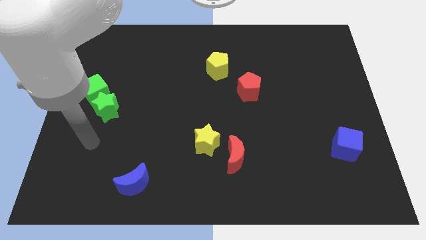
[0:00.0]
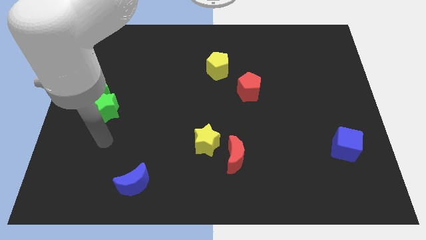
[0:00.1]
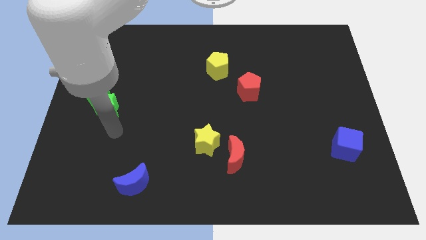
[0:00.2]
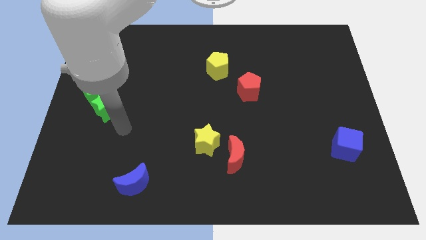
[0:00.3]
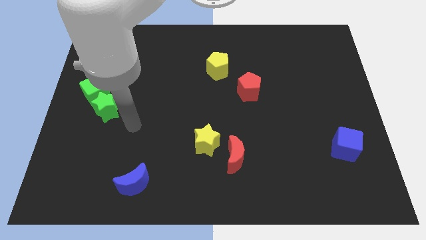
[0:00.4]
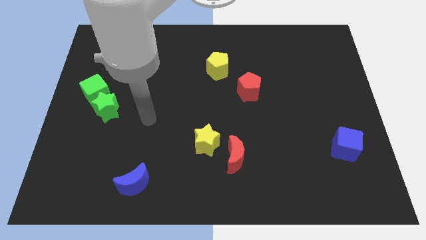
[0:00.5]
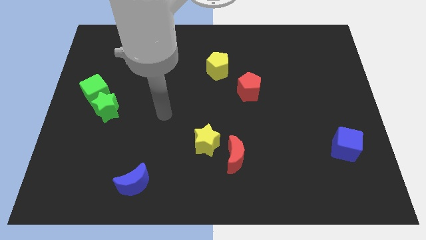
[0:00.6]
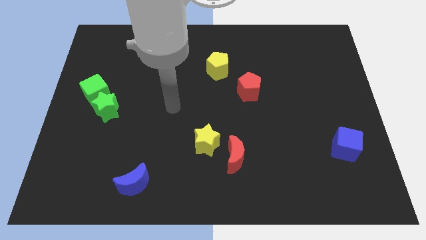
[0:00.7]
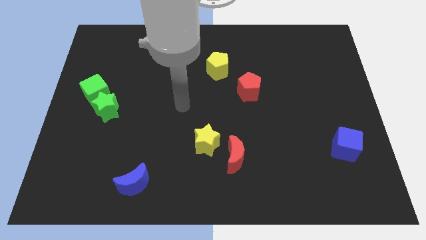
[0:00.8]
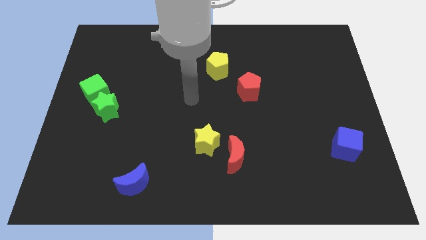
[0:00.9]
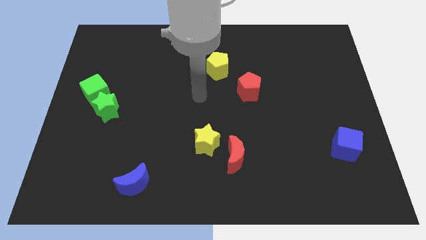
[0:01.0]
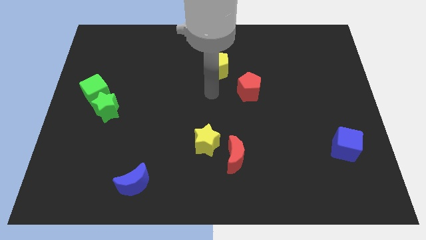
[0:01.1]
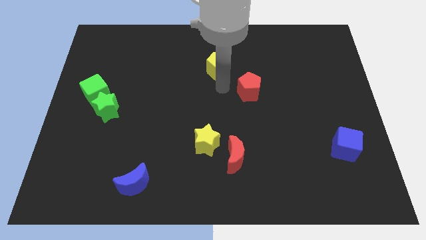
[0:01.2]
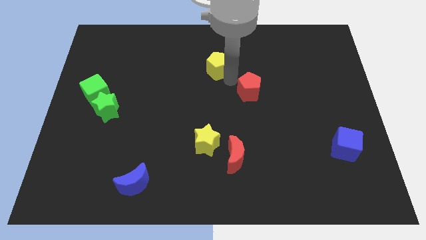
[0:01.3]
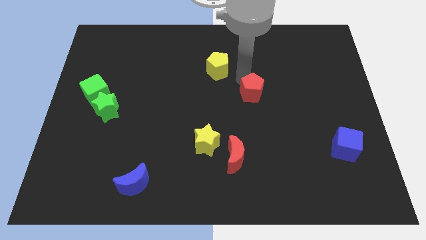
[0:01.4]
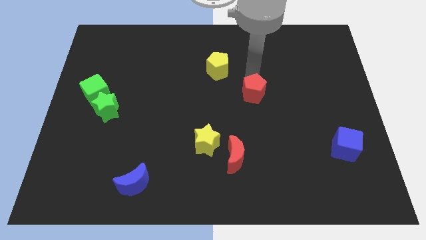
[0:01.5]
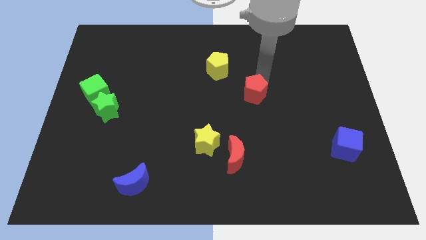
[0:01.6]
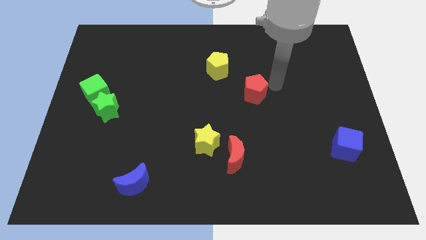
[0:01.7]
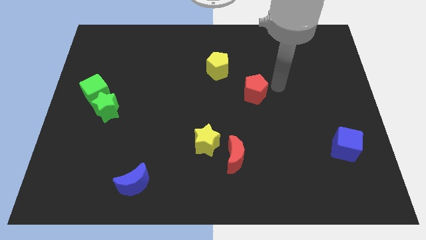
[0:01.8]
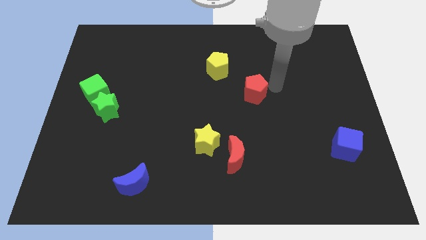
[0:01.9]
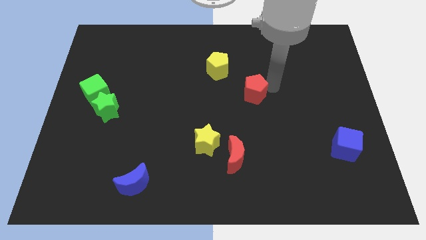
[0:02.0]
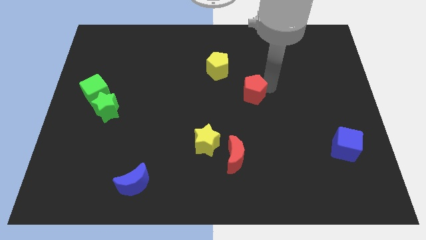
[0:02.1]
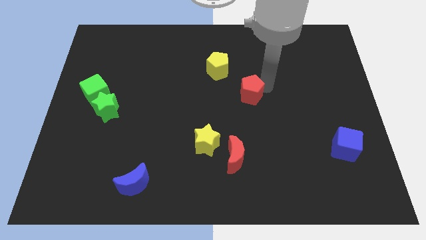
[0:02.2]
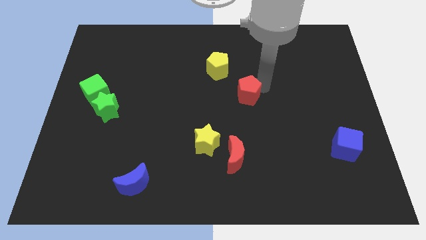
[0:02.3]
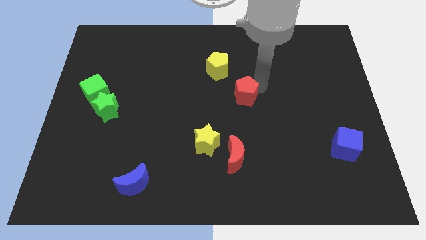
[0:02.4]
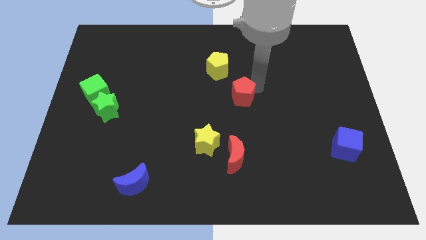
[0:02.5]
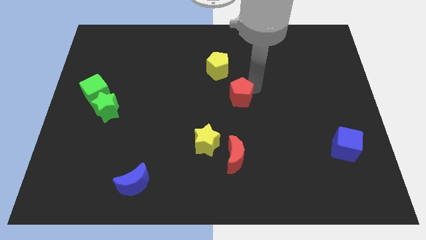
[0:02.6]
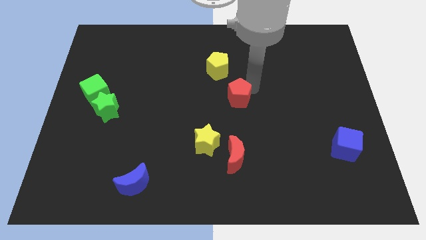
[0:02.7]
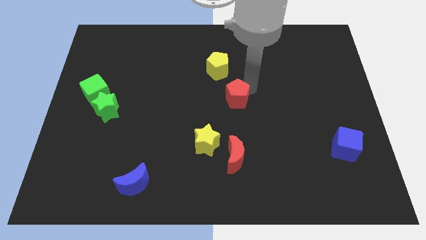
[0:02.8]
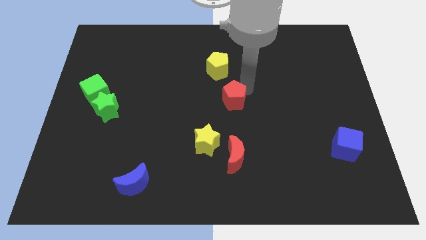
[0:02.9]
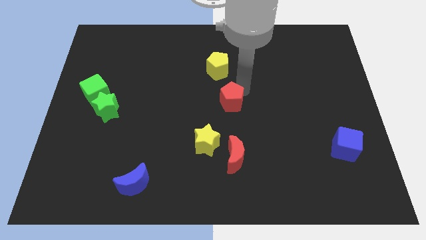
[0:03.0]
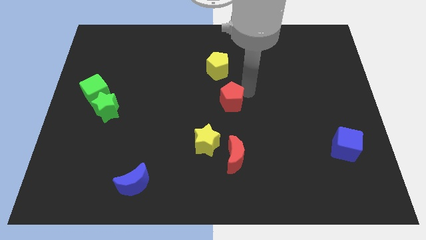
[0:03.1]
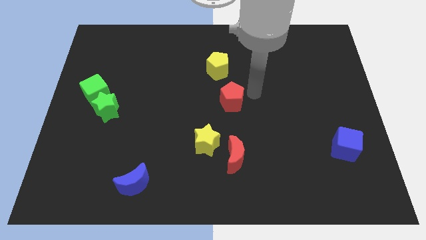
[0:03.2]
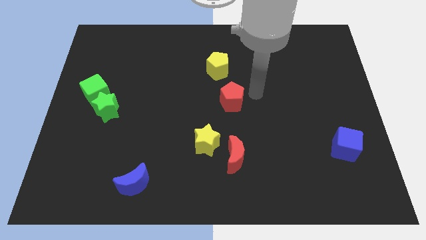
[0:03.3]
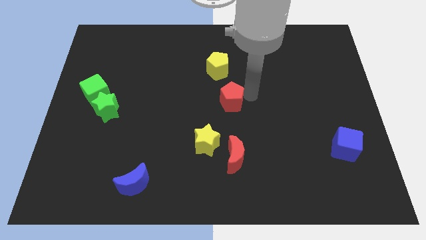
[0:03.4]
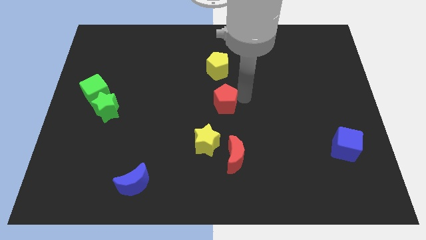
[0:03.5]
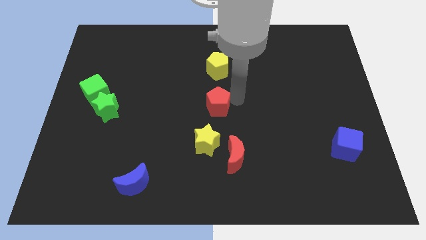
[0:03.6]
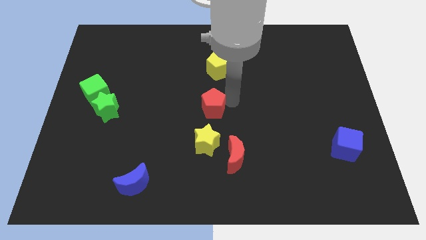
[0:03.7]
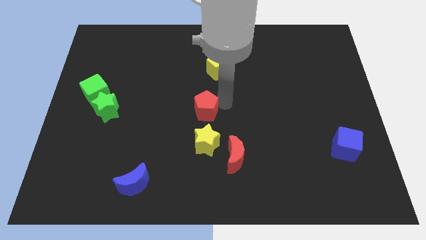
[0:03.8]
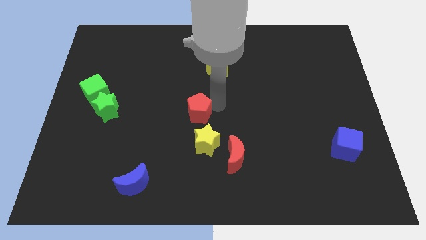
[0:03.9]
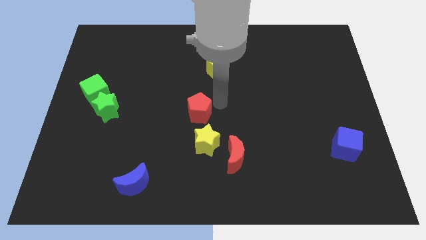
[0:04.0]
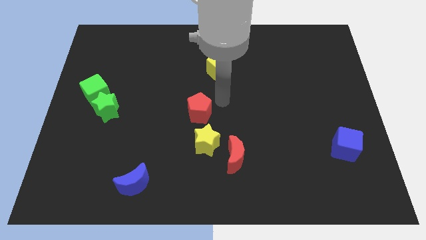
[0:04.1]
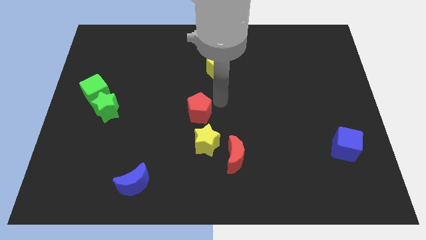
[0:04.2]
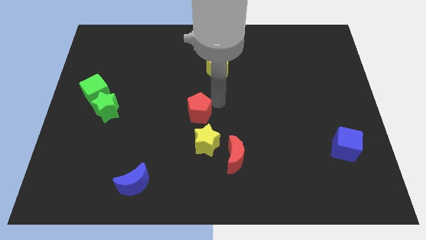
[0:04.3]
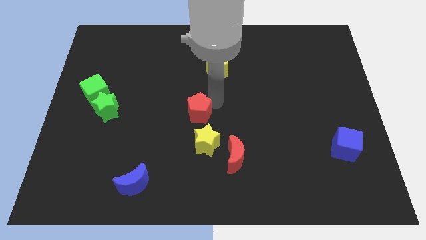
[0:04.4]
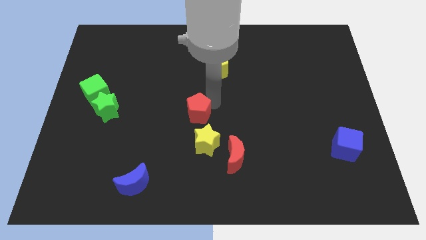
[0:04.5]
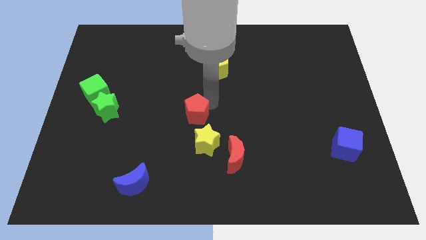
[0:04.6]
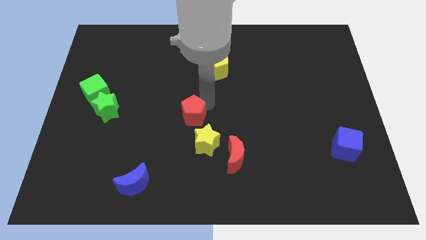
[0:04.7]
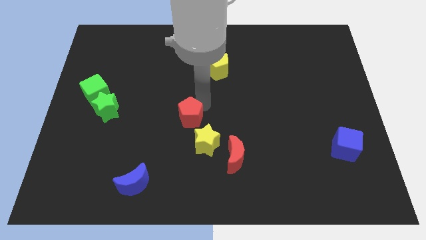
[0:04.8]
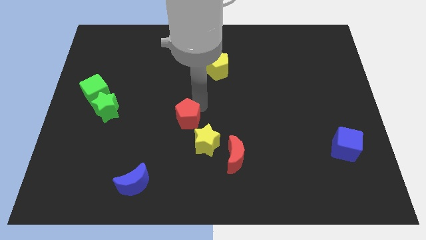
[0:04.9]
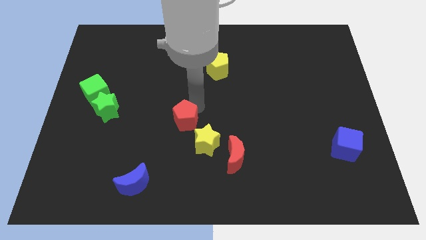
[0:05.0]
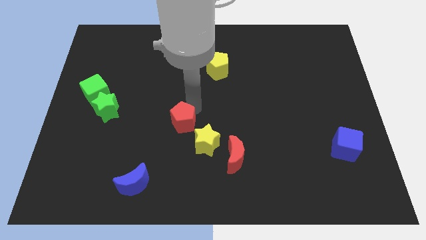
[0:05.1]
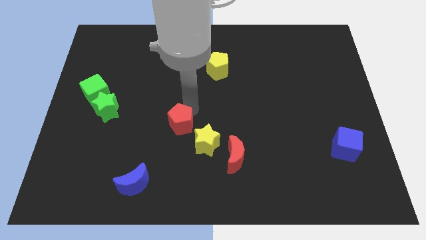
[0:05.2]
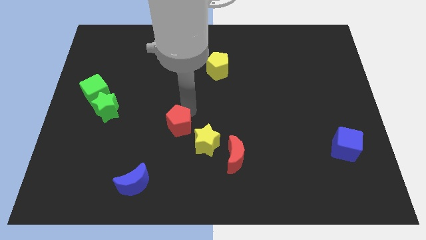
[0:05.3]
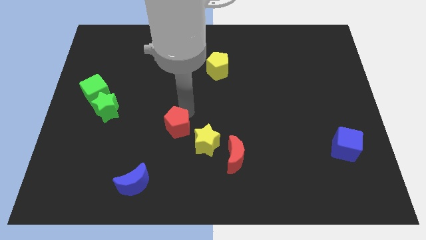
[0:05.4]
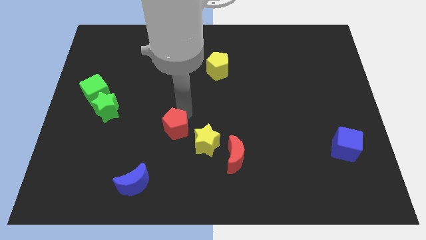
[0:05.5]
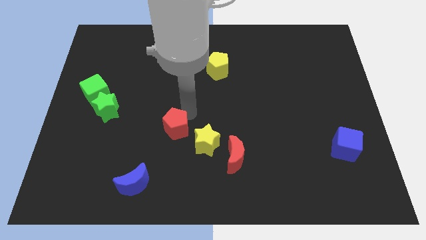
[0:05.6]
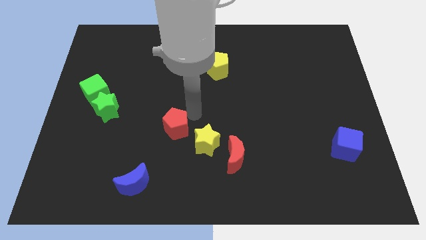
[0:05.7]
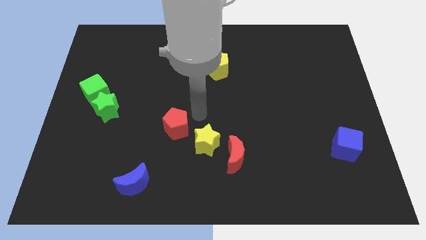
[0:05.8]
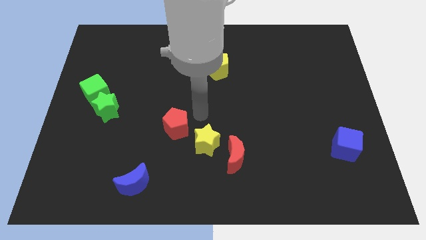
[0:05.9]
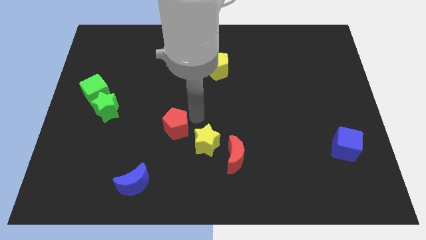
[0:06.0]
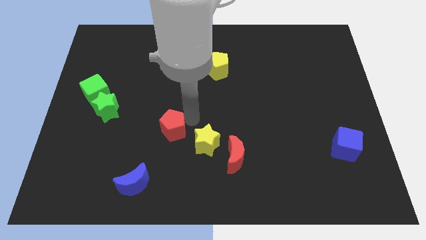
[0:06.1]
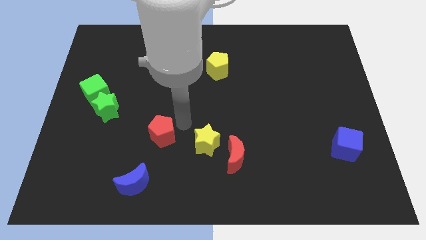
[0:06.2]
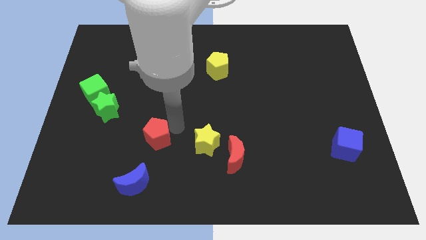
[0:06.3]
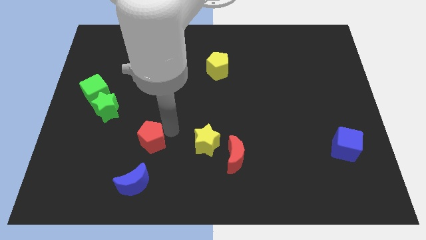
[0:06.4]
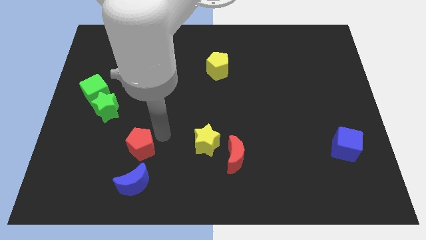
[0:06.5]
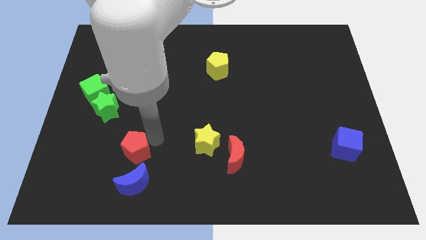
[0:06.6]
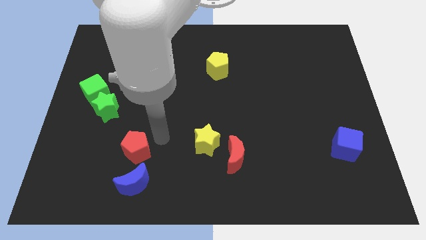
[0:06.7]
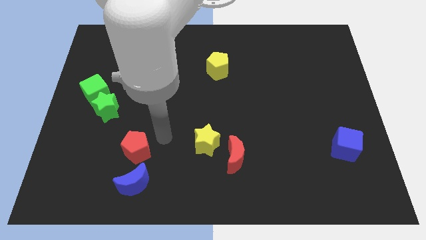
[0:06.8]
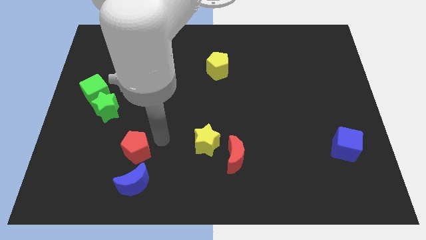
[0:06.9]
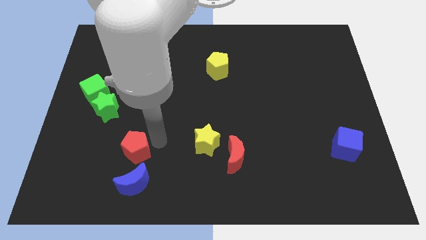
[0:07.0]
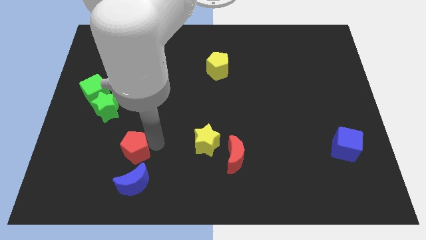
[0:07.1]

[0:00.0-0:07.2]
move the red pentagon to the top left side of the blue moon
